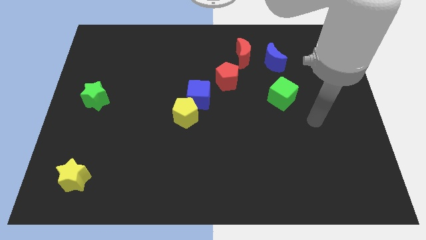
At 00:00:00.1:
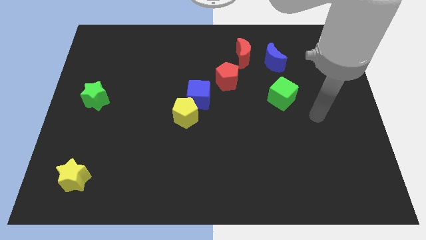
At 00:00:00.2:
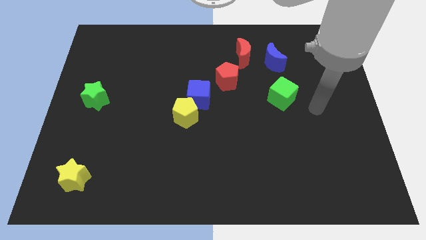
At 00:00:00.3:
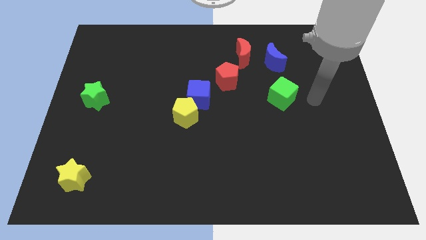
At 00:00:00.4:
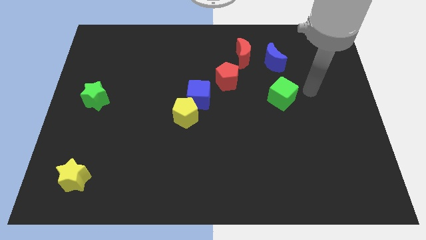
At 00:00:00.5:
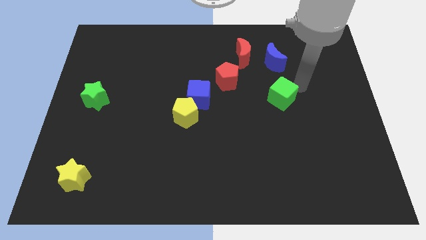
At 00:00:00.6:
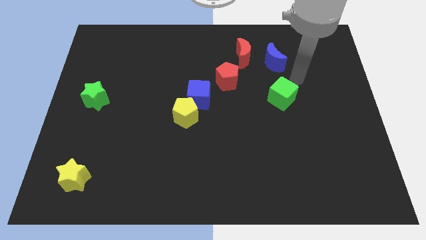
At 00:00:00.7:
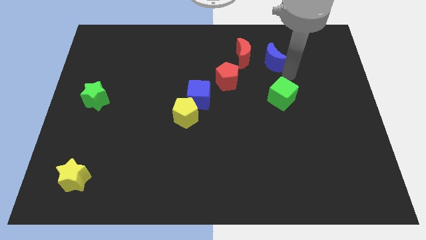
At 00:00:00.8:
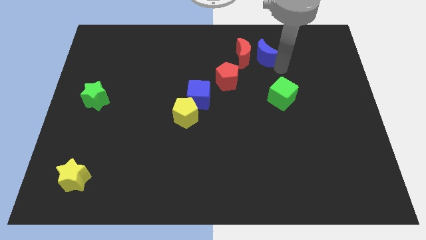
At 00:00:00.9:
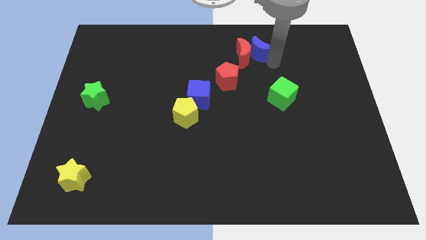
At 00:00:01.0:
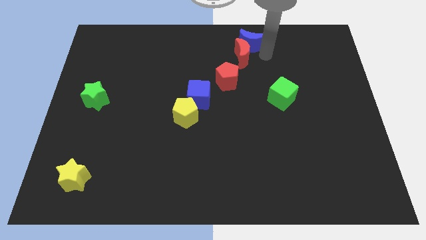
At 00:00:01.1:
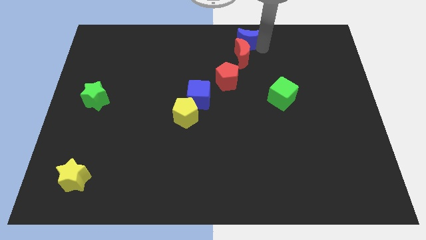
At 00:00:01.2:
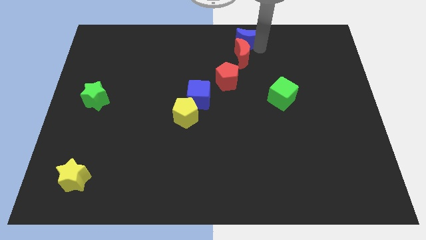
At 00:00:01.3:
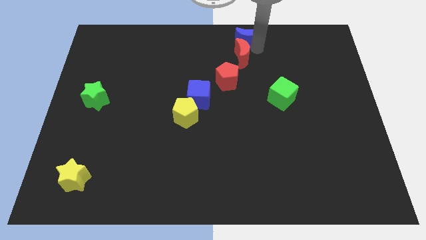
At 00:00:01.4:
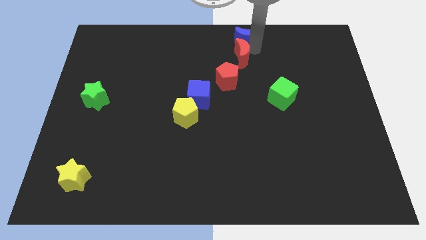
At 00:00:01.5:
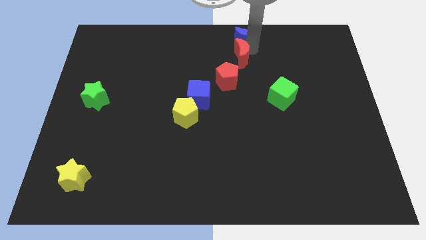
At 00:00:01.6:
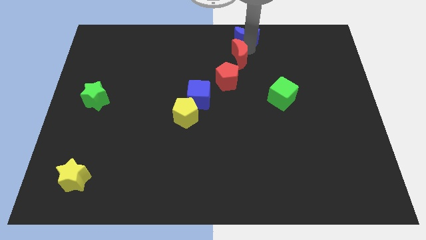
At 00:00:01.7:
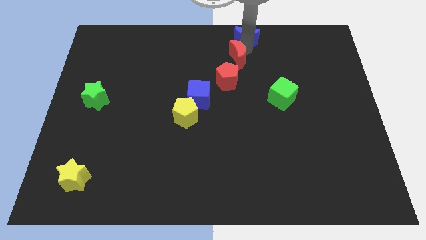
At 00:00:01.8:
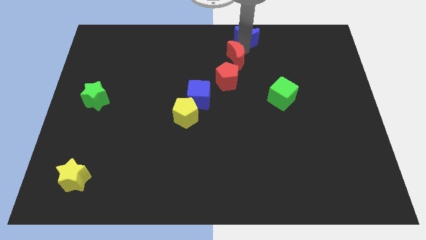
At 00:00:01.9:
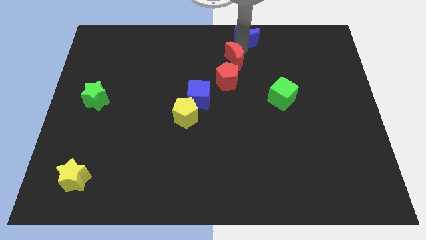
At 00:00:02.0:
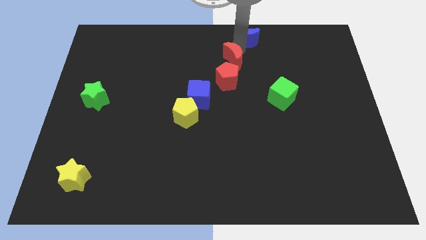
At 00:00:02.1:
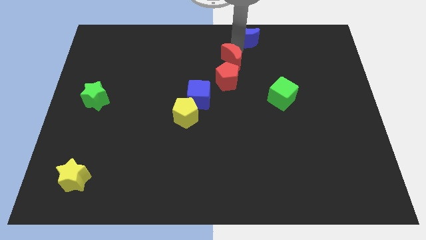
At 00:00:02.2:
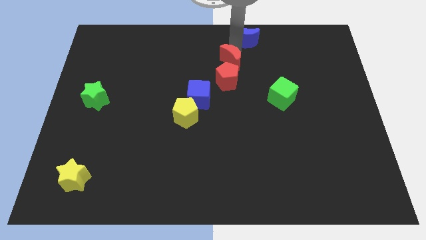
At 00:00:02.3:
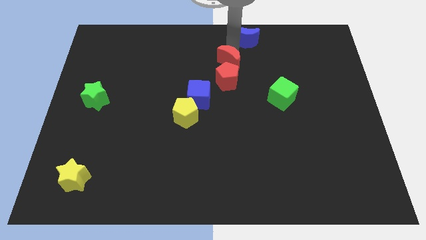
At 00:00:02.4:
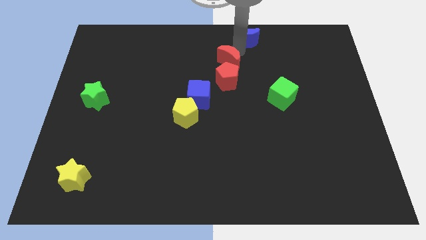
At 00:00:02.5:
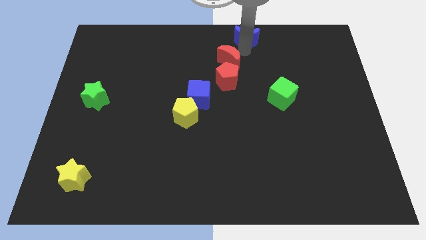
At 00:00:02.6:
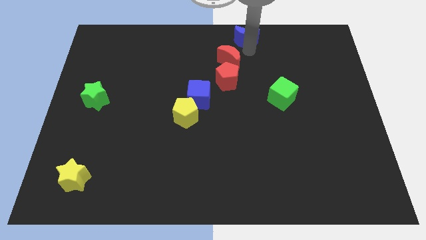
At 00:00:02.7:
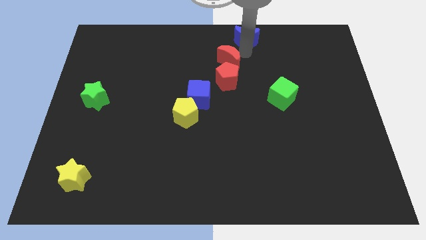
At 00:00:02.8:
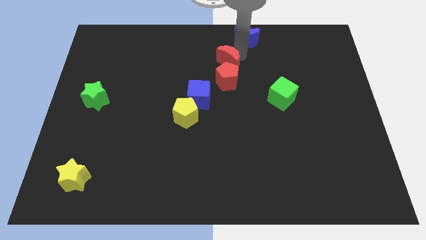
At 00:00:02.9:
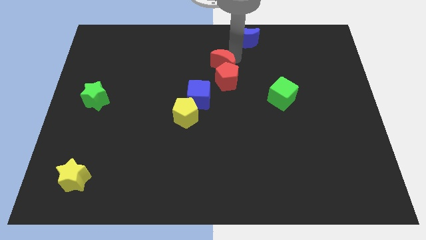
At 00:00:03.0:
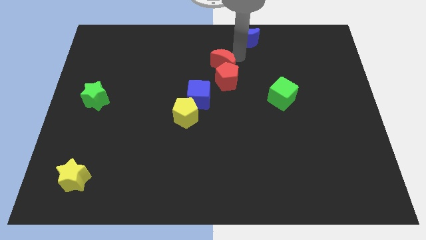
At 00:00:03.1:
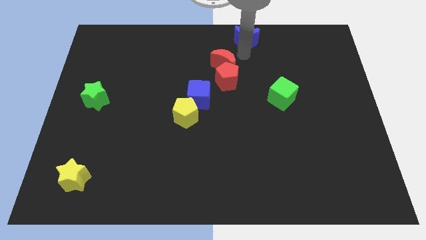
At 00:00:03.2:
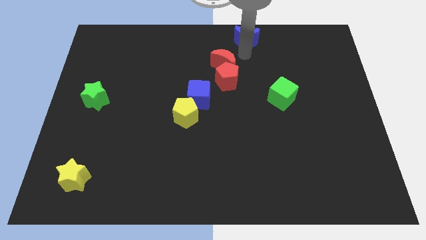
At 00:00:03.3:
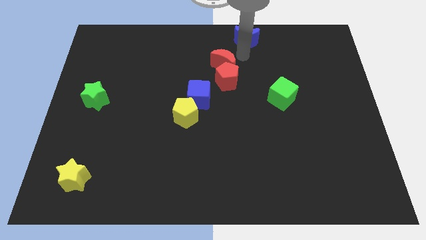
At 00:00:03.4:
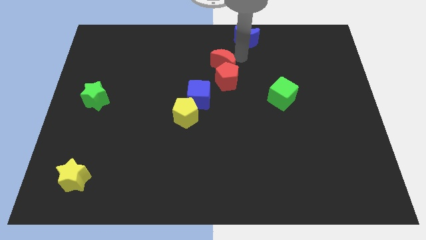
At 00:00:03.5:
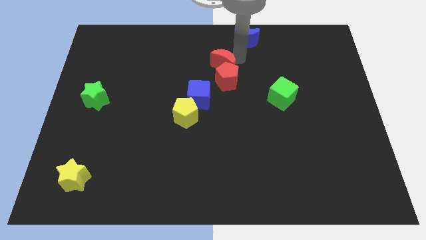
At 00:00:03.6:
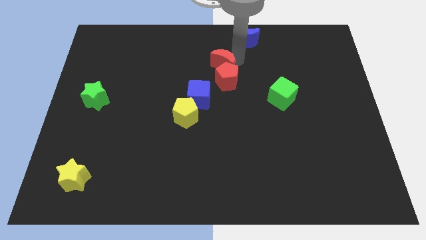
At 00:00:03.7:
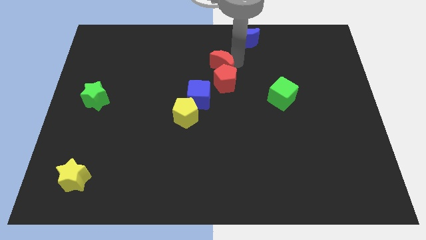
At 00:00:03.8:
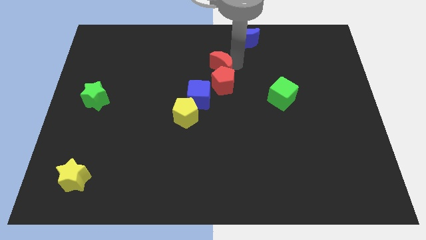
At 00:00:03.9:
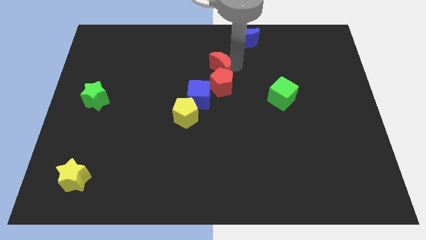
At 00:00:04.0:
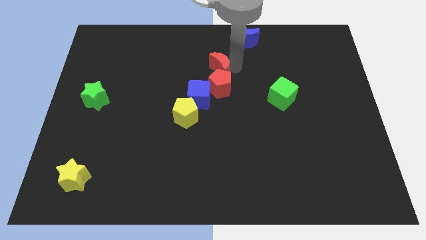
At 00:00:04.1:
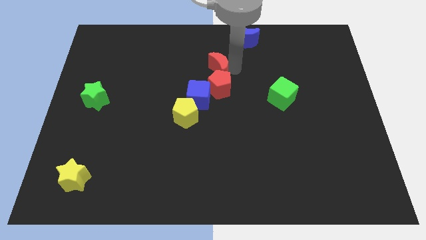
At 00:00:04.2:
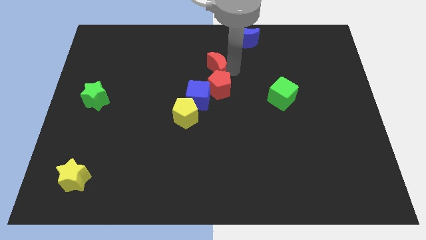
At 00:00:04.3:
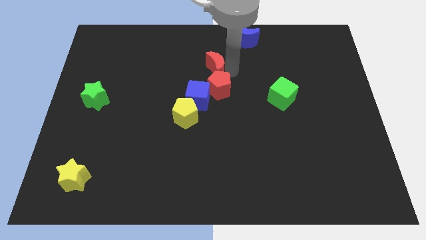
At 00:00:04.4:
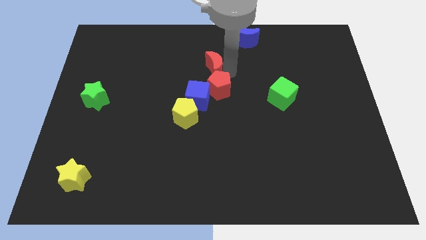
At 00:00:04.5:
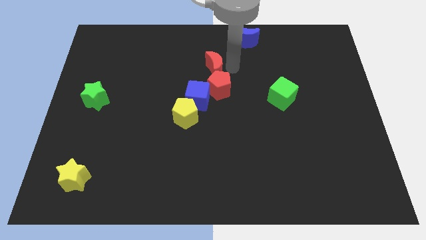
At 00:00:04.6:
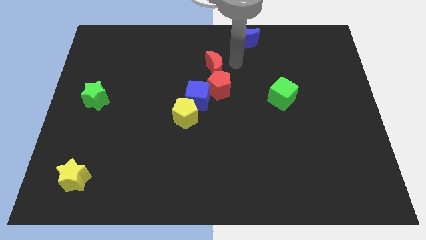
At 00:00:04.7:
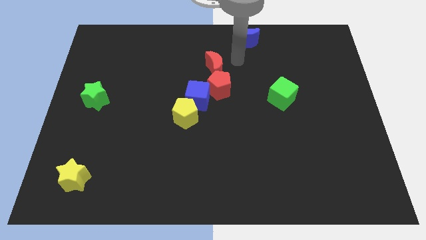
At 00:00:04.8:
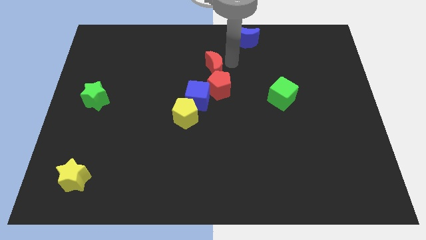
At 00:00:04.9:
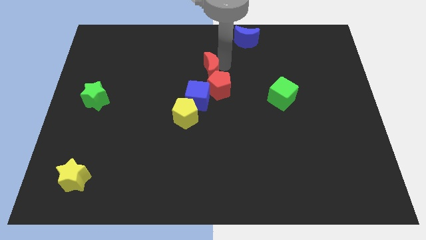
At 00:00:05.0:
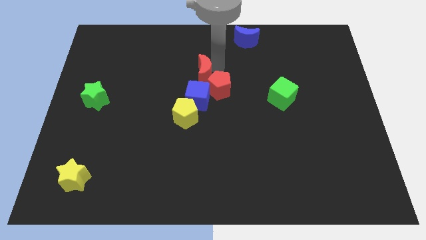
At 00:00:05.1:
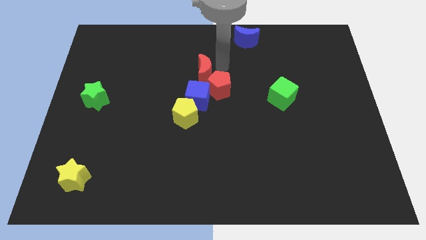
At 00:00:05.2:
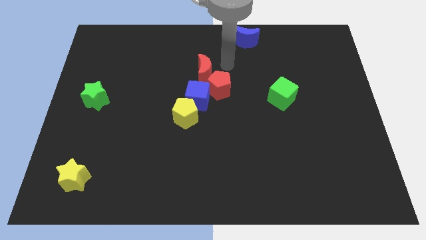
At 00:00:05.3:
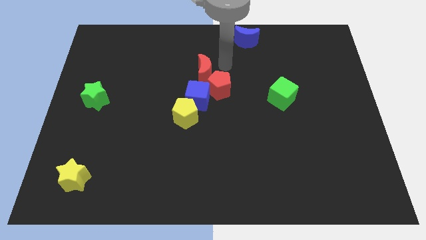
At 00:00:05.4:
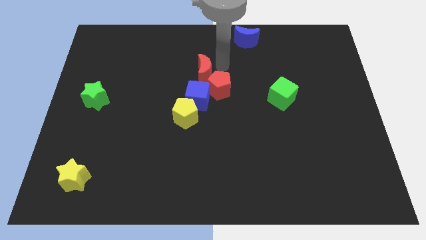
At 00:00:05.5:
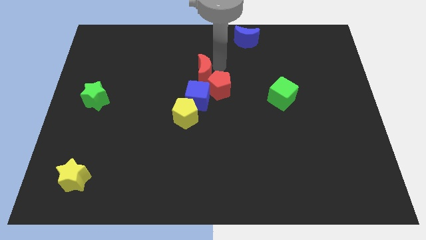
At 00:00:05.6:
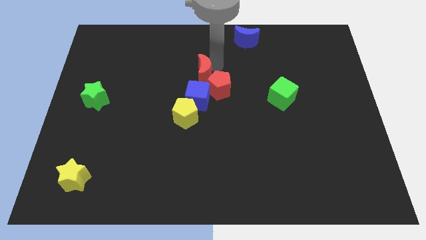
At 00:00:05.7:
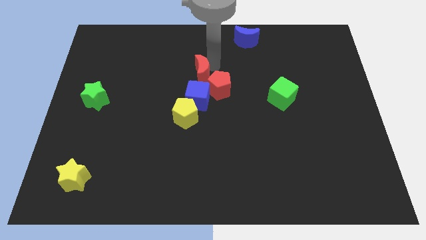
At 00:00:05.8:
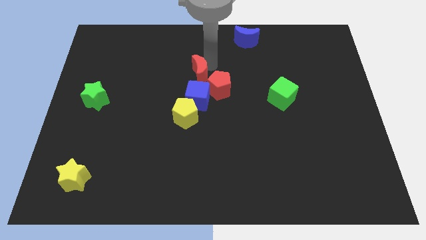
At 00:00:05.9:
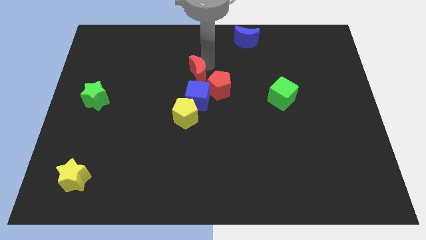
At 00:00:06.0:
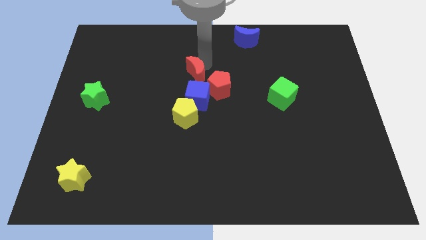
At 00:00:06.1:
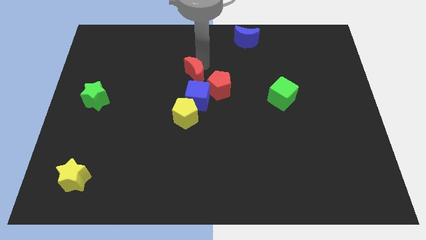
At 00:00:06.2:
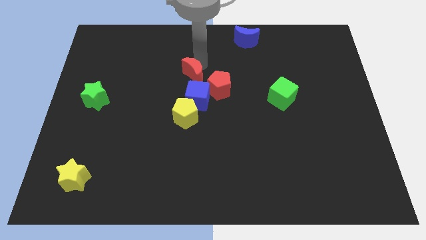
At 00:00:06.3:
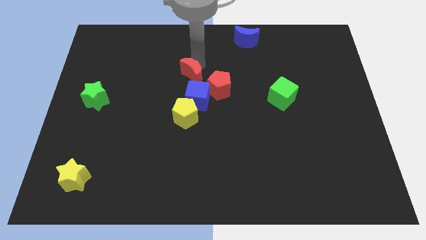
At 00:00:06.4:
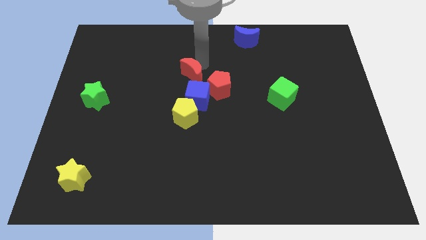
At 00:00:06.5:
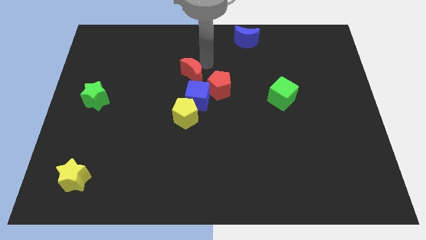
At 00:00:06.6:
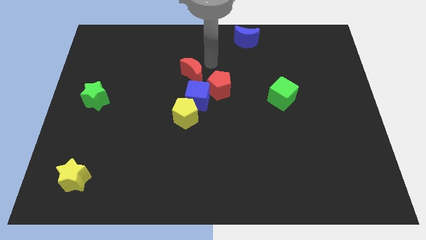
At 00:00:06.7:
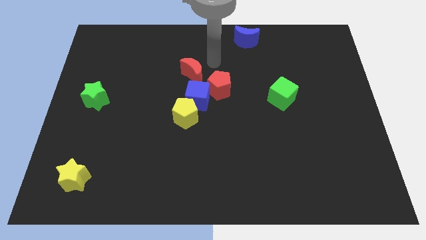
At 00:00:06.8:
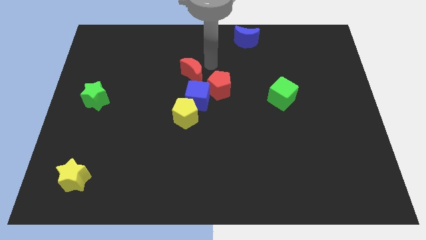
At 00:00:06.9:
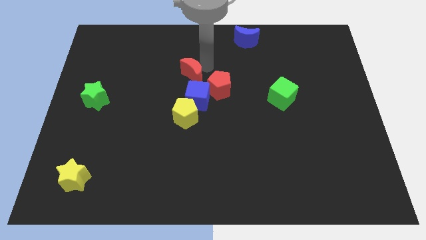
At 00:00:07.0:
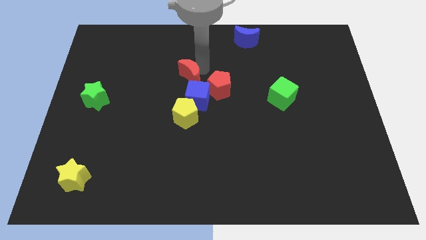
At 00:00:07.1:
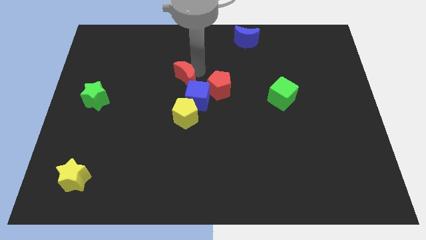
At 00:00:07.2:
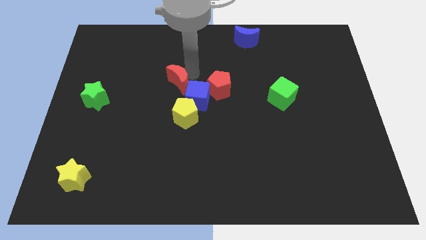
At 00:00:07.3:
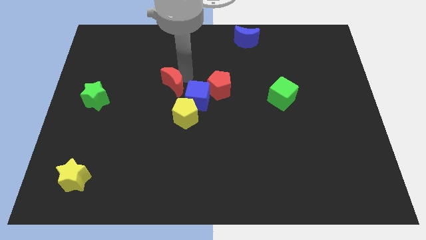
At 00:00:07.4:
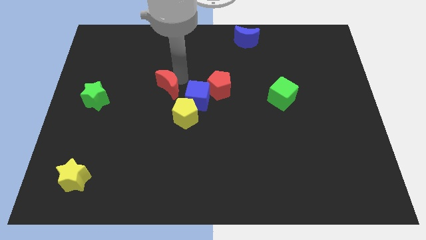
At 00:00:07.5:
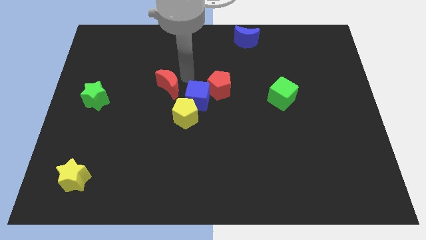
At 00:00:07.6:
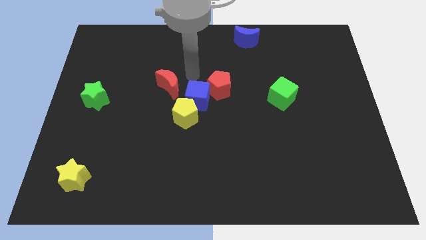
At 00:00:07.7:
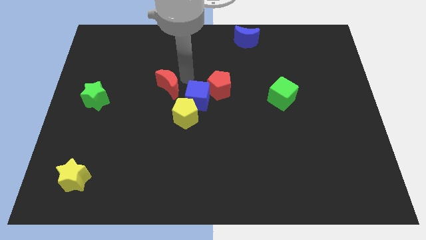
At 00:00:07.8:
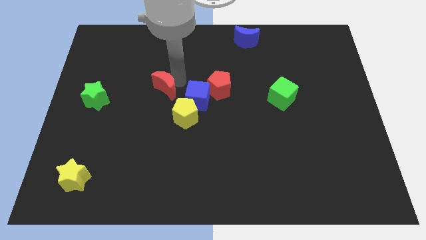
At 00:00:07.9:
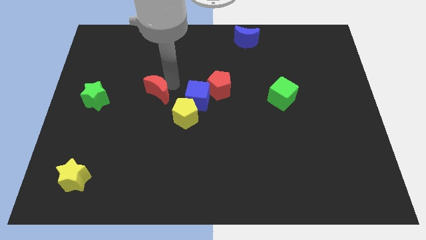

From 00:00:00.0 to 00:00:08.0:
slide the red moon to the right of the green star
